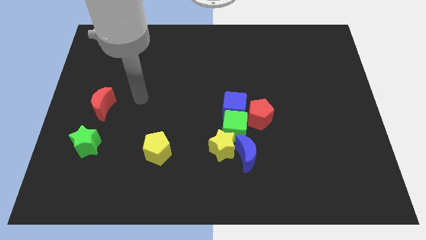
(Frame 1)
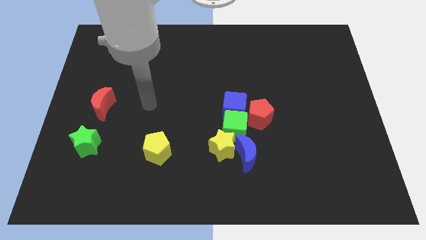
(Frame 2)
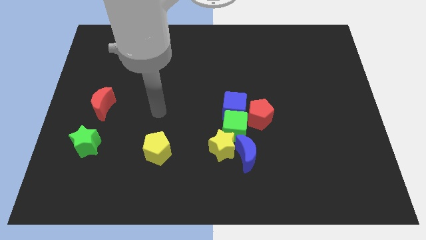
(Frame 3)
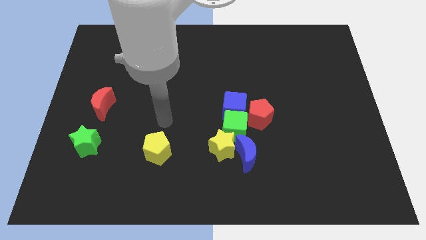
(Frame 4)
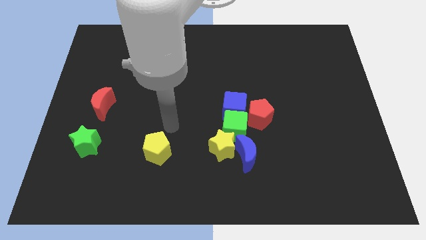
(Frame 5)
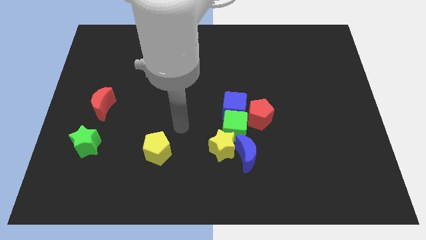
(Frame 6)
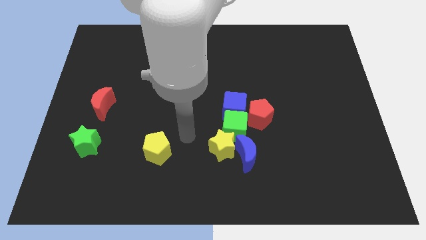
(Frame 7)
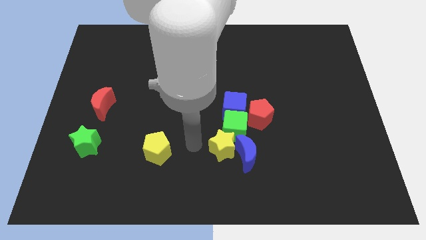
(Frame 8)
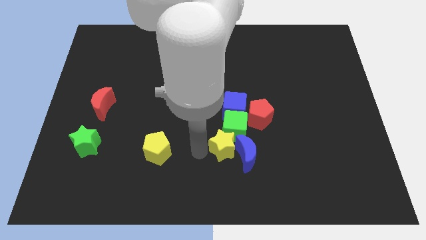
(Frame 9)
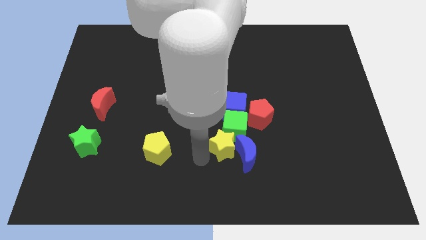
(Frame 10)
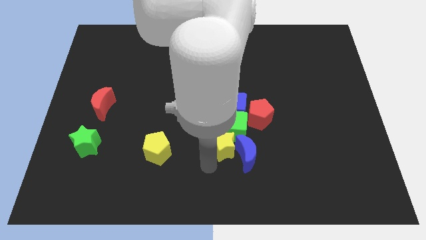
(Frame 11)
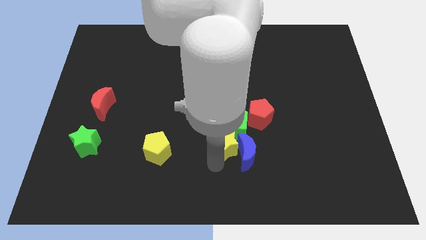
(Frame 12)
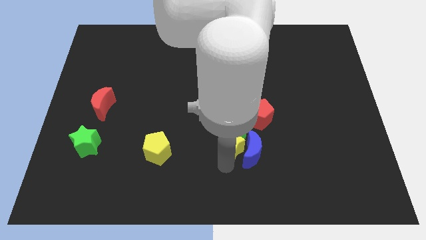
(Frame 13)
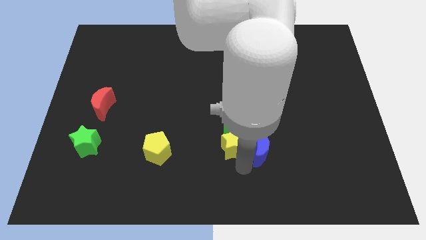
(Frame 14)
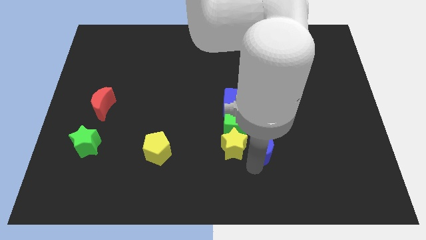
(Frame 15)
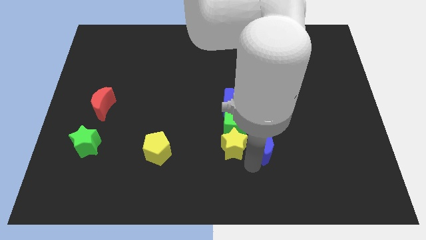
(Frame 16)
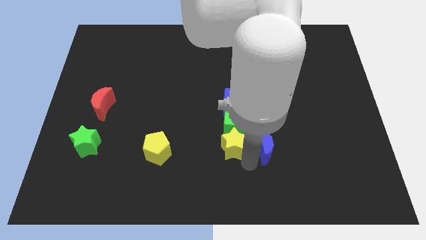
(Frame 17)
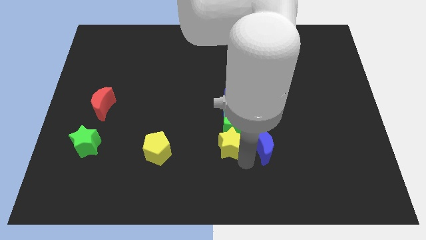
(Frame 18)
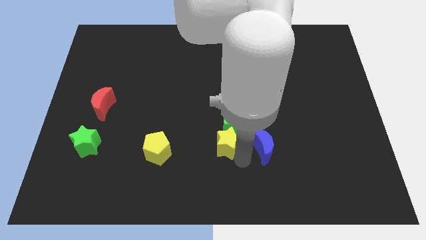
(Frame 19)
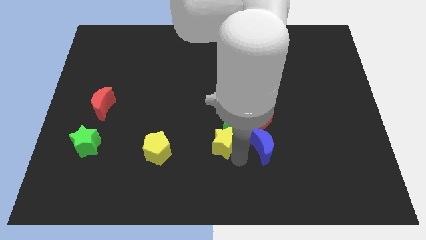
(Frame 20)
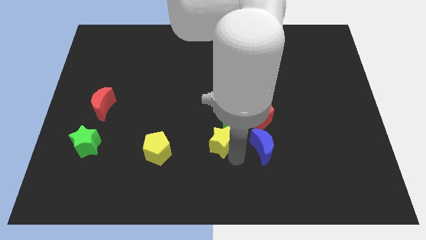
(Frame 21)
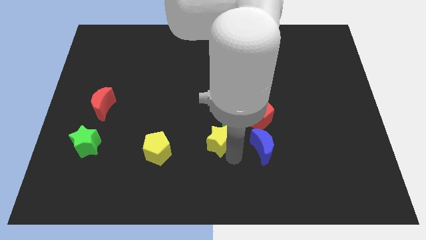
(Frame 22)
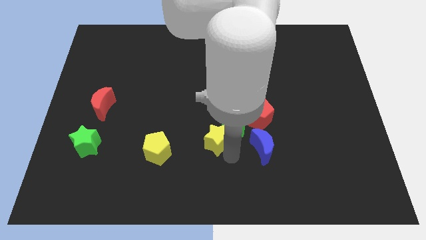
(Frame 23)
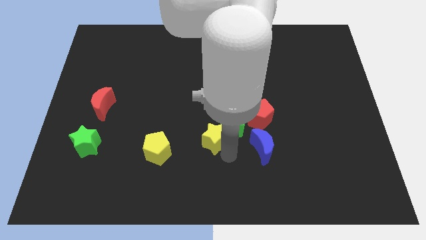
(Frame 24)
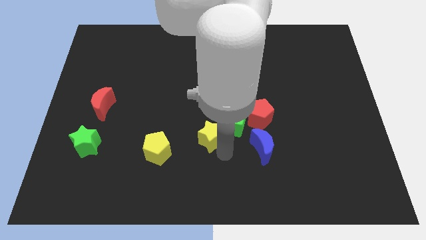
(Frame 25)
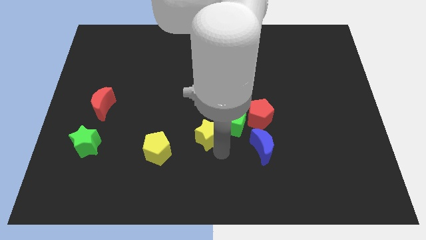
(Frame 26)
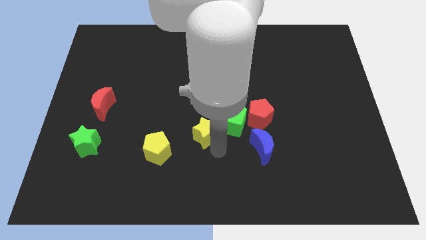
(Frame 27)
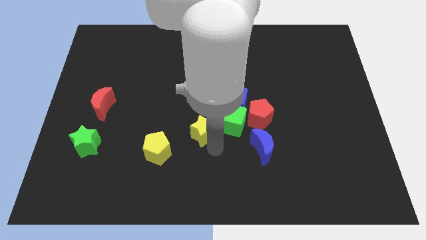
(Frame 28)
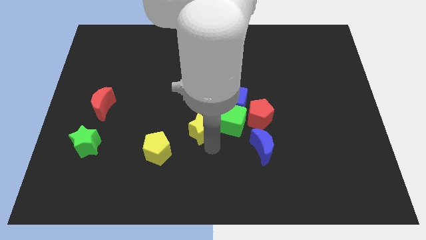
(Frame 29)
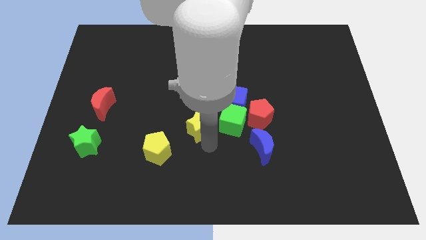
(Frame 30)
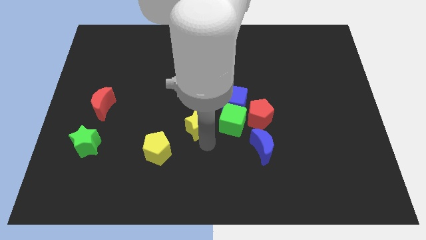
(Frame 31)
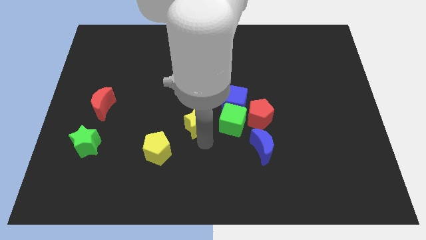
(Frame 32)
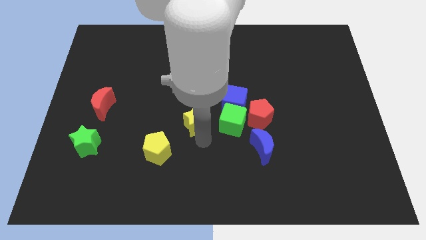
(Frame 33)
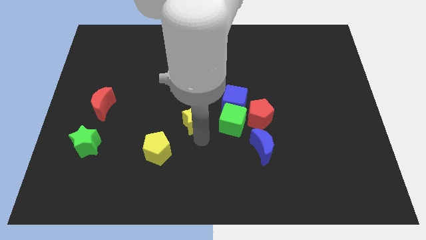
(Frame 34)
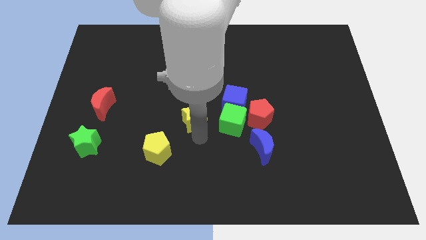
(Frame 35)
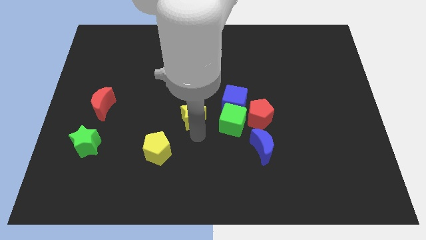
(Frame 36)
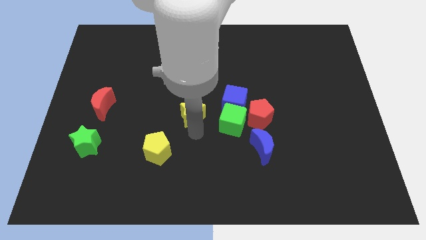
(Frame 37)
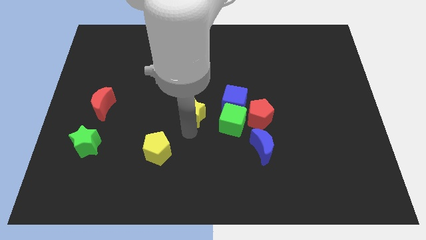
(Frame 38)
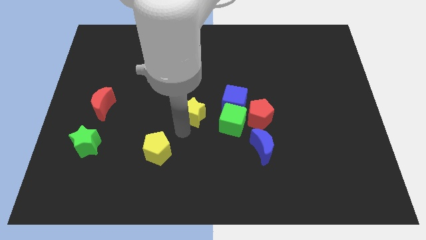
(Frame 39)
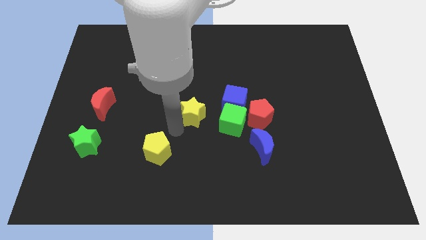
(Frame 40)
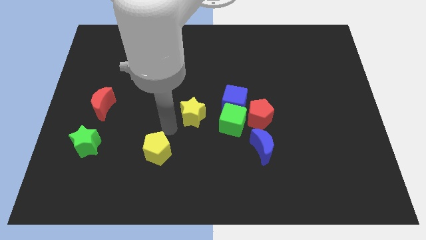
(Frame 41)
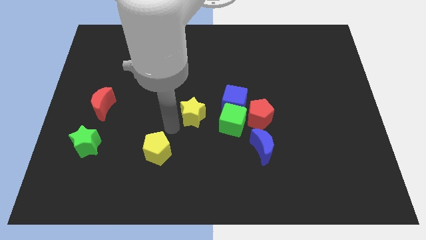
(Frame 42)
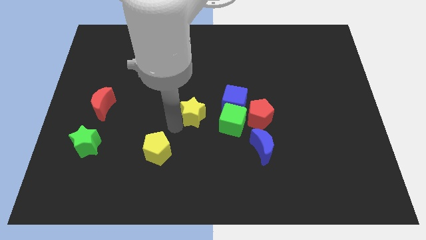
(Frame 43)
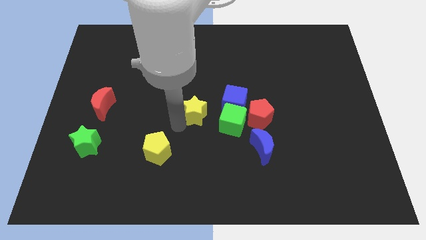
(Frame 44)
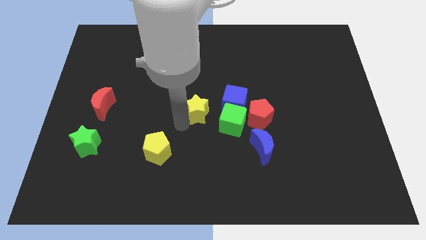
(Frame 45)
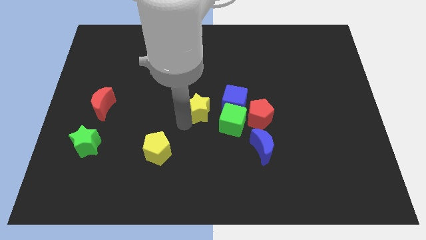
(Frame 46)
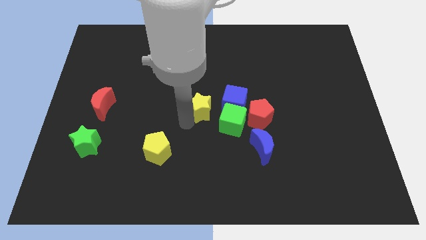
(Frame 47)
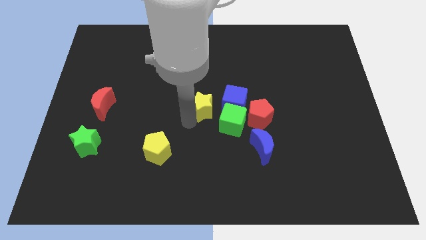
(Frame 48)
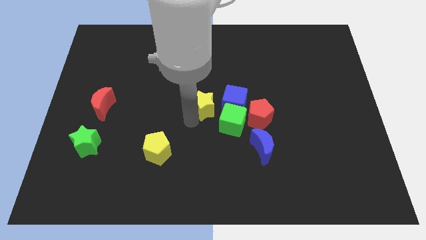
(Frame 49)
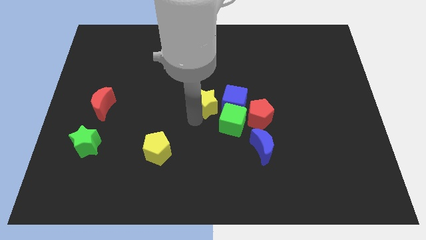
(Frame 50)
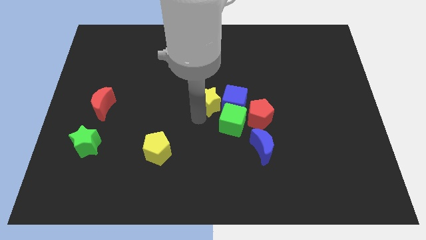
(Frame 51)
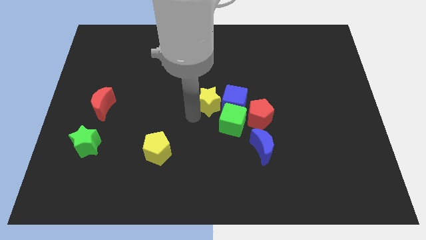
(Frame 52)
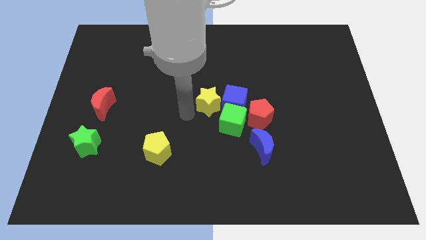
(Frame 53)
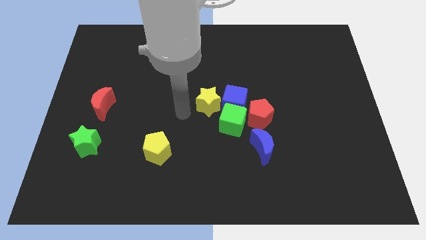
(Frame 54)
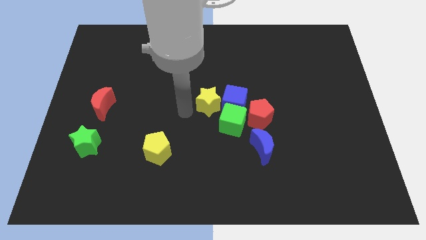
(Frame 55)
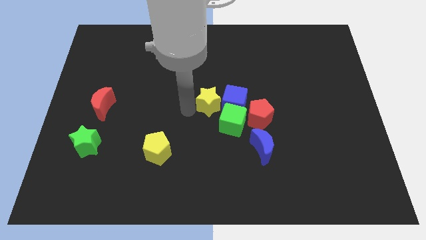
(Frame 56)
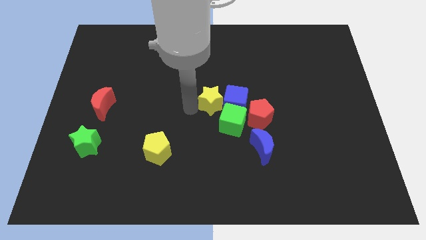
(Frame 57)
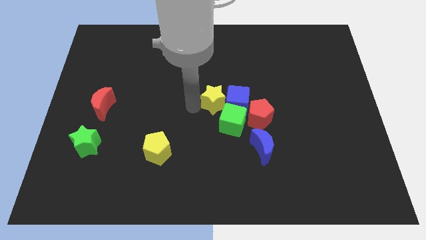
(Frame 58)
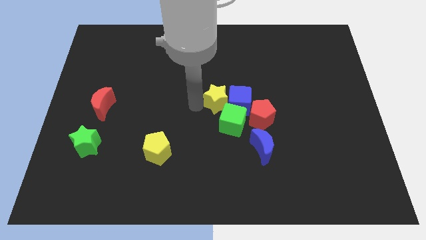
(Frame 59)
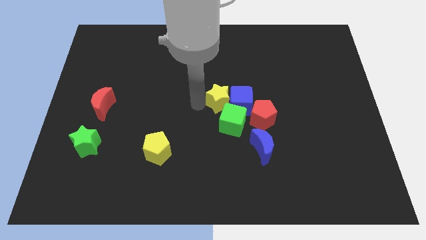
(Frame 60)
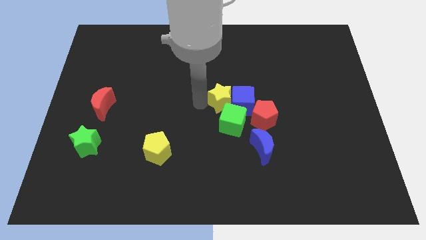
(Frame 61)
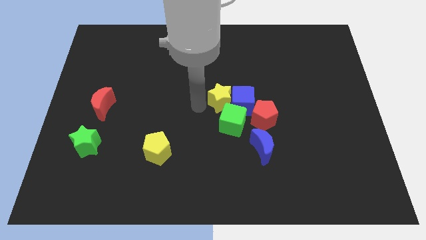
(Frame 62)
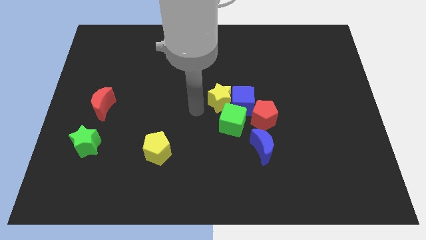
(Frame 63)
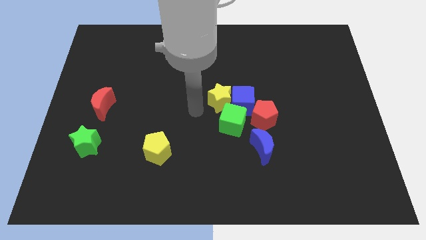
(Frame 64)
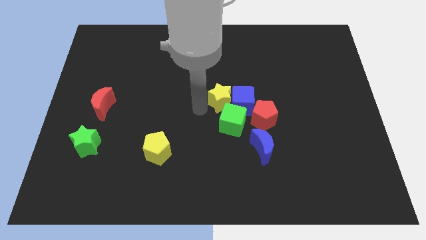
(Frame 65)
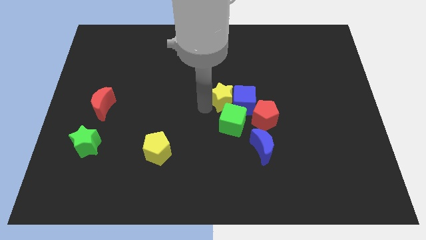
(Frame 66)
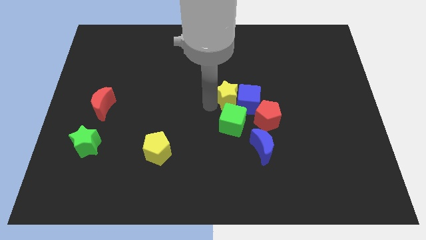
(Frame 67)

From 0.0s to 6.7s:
slide the yellow star up and right diagonally a little

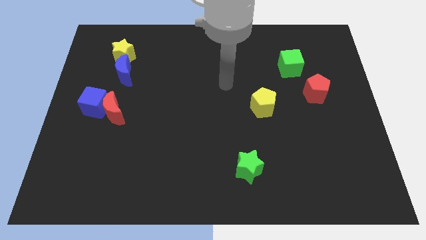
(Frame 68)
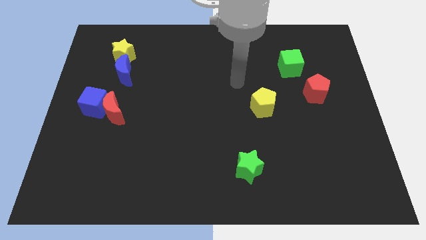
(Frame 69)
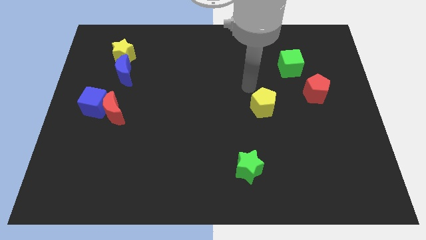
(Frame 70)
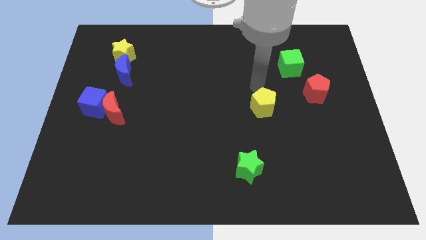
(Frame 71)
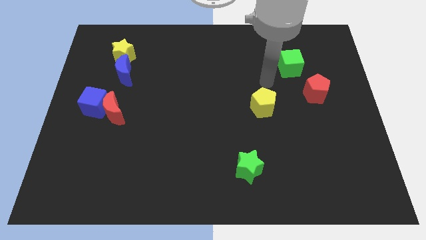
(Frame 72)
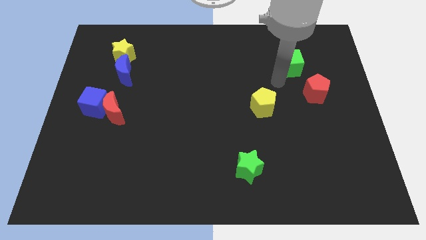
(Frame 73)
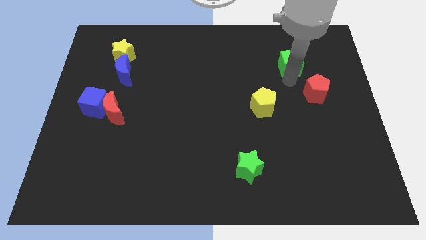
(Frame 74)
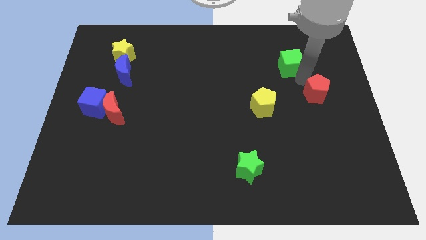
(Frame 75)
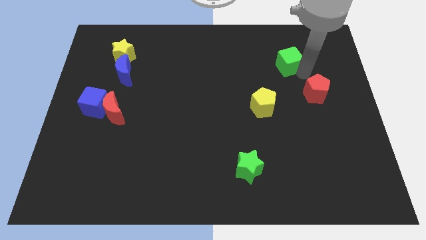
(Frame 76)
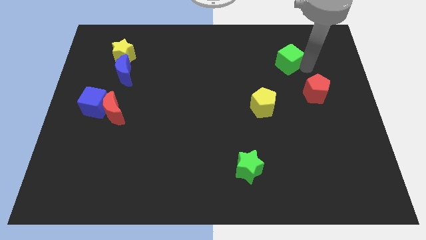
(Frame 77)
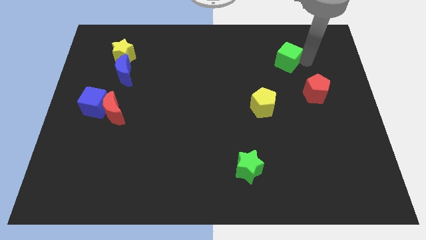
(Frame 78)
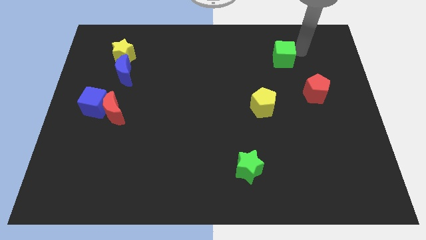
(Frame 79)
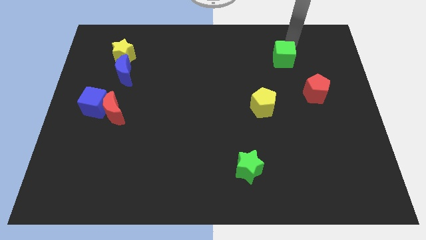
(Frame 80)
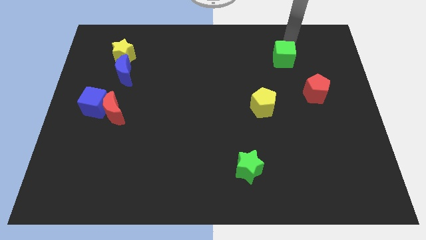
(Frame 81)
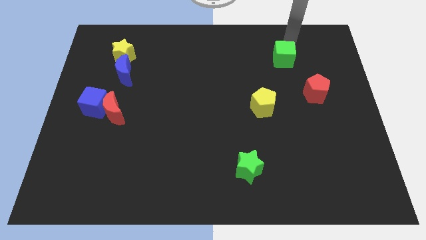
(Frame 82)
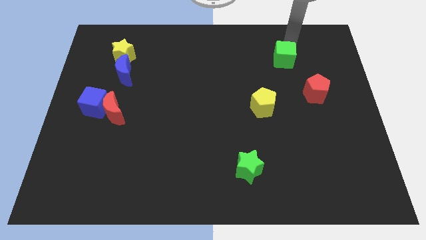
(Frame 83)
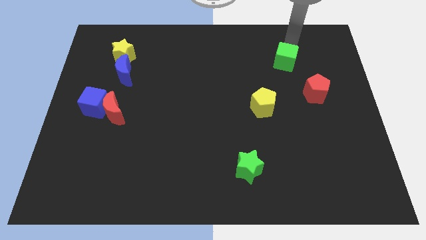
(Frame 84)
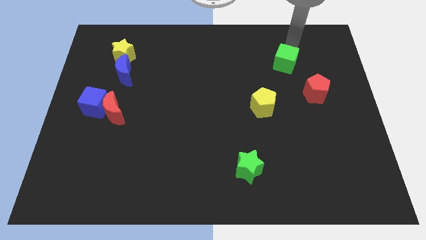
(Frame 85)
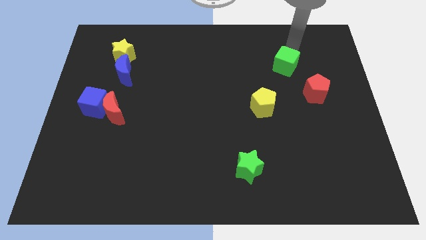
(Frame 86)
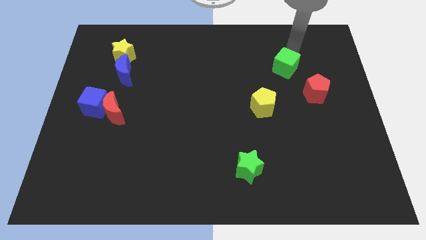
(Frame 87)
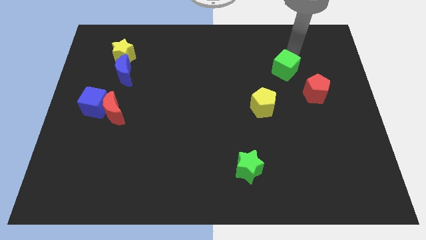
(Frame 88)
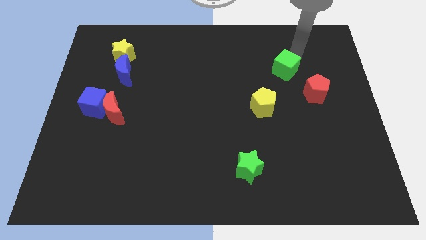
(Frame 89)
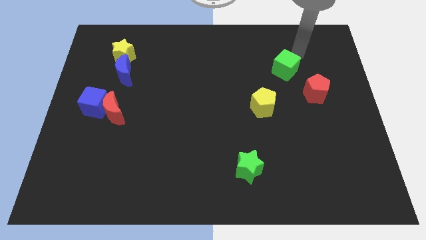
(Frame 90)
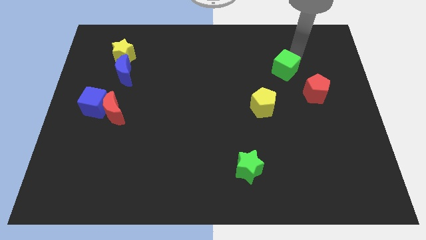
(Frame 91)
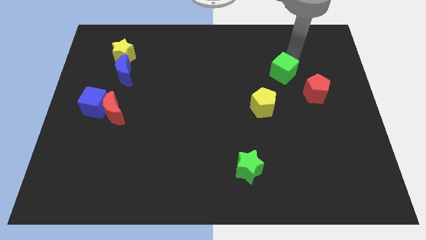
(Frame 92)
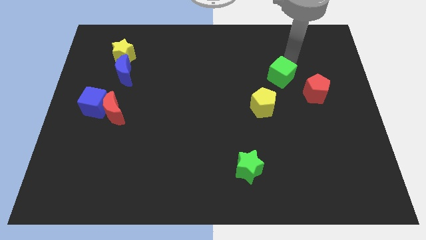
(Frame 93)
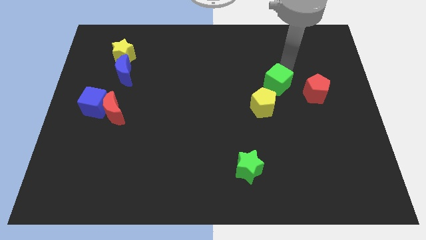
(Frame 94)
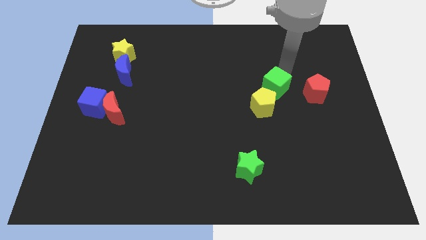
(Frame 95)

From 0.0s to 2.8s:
slightly move the green cube diagonally down and left
